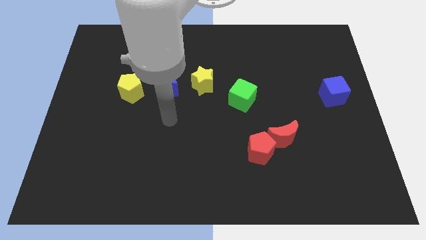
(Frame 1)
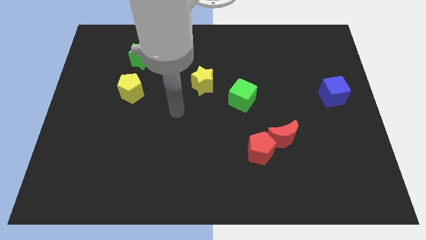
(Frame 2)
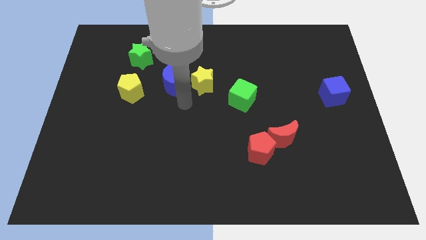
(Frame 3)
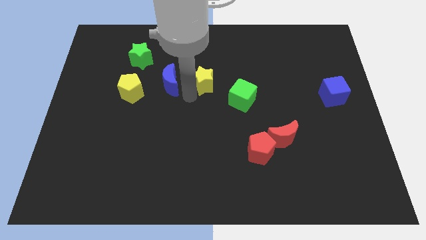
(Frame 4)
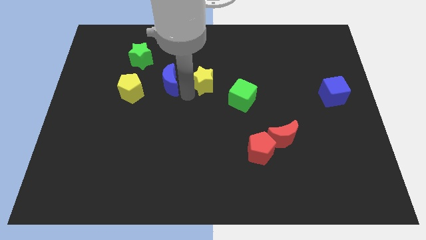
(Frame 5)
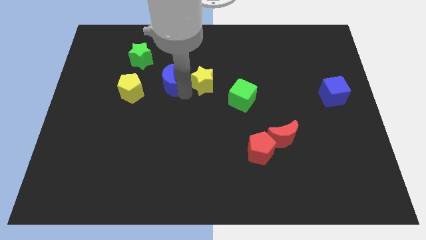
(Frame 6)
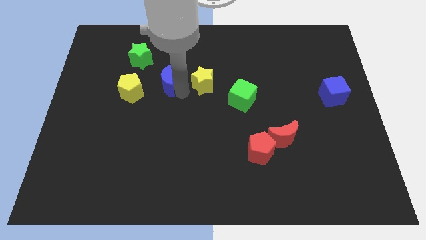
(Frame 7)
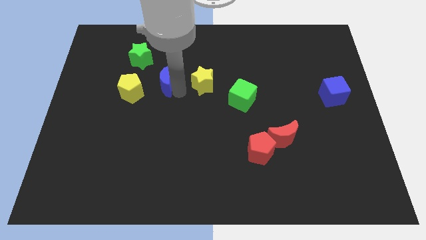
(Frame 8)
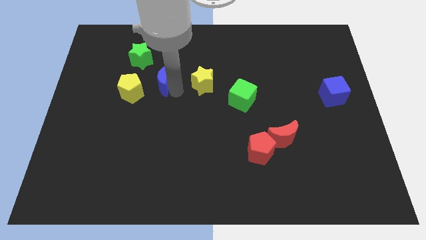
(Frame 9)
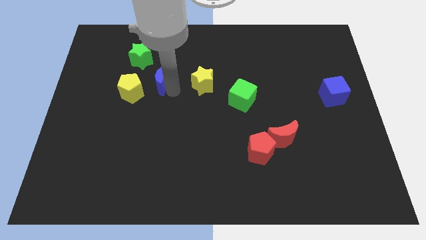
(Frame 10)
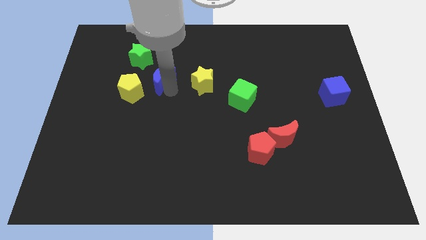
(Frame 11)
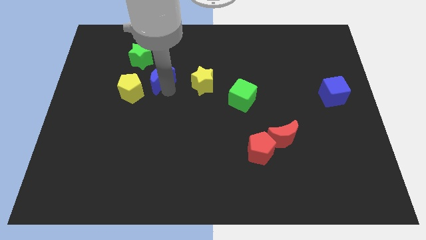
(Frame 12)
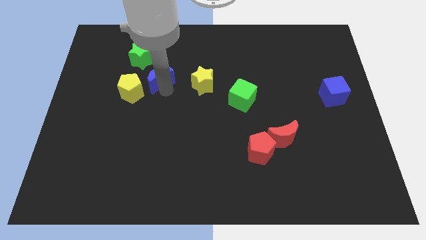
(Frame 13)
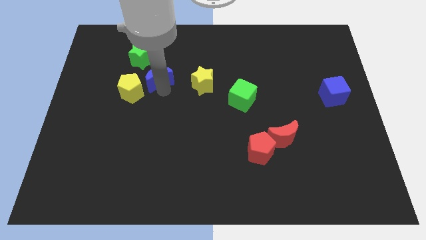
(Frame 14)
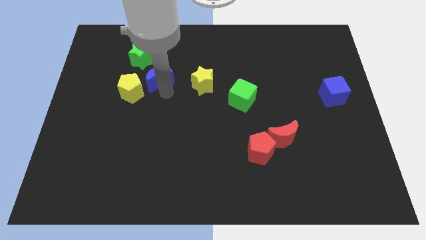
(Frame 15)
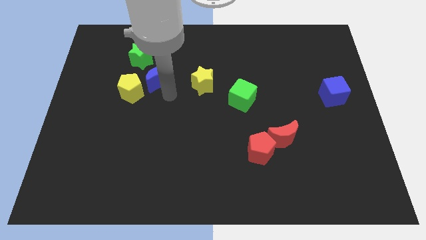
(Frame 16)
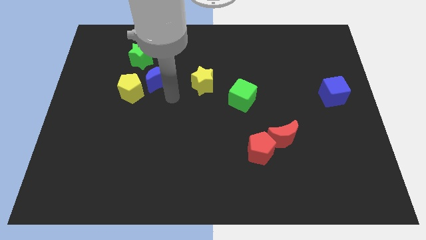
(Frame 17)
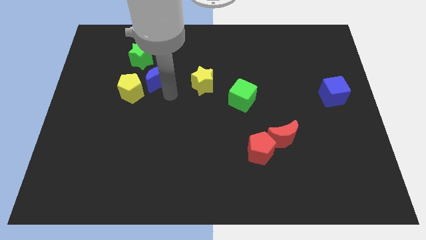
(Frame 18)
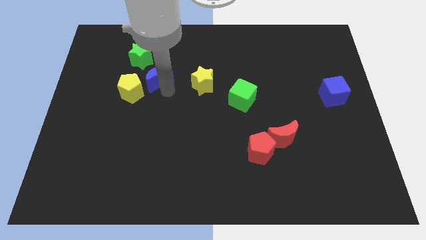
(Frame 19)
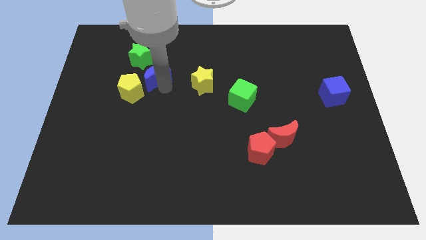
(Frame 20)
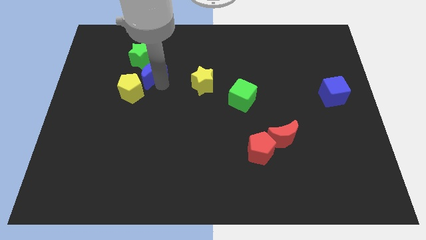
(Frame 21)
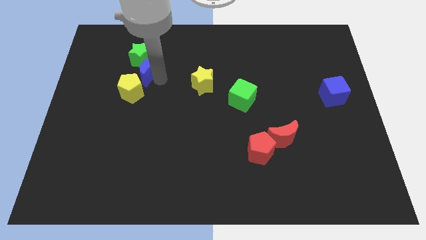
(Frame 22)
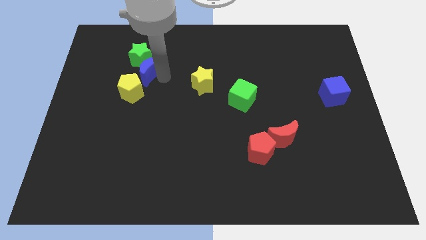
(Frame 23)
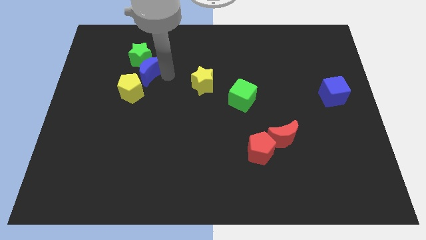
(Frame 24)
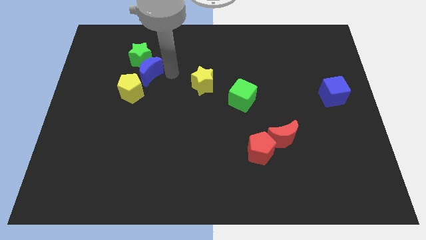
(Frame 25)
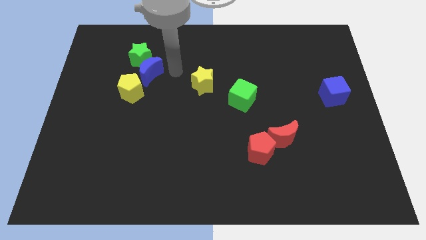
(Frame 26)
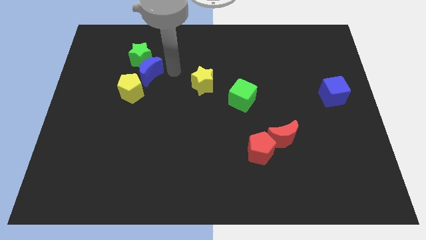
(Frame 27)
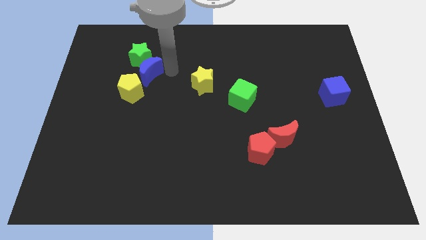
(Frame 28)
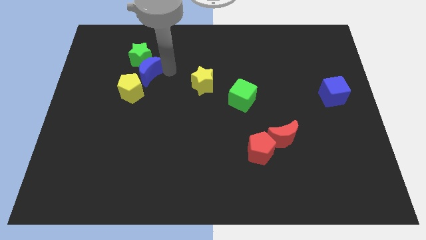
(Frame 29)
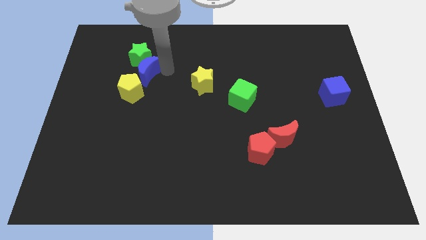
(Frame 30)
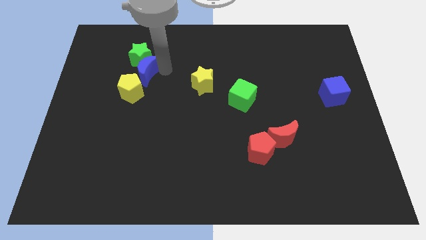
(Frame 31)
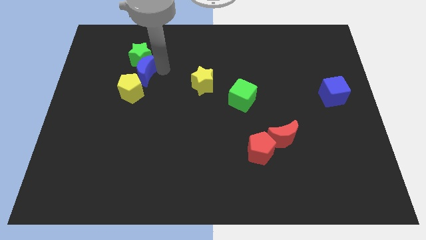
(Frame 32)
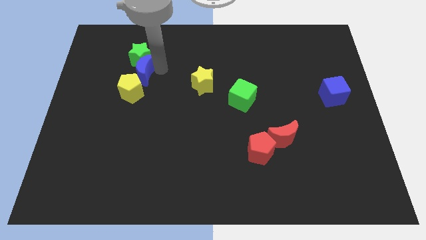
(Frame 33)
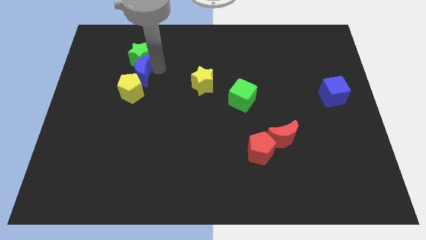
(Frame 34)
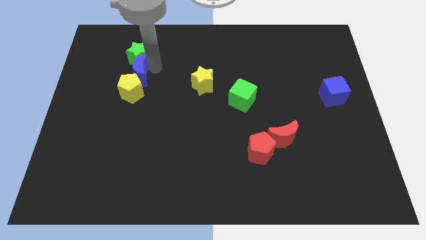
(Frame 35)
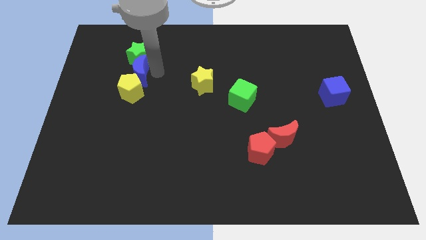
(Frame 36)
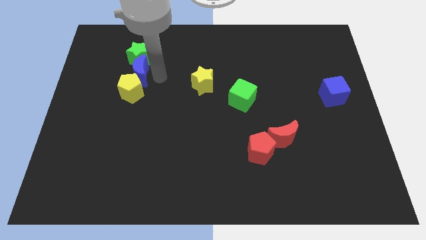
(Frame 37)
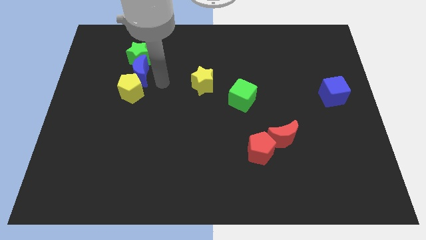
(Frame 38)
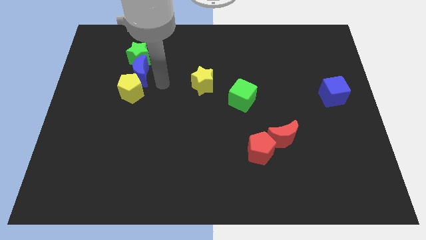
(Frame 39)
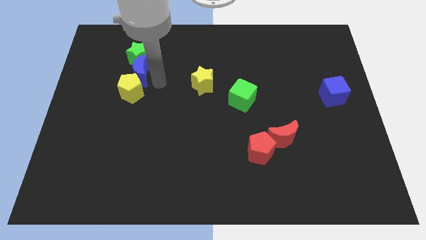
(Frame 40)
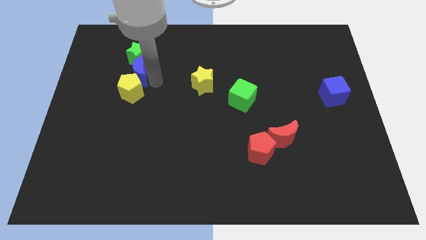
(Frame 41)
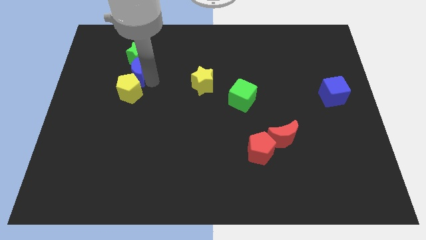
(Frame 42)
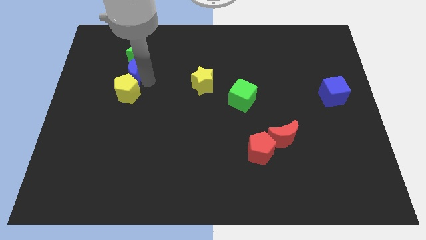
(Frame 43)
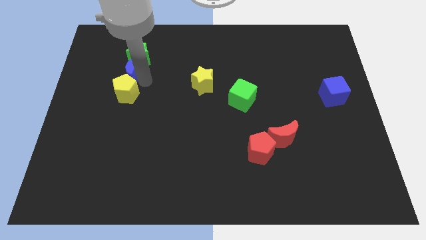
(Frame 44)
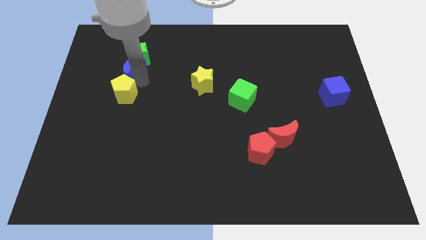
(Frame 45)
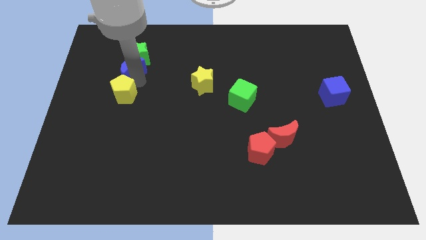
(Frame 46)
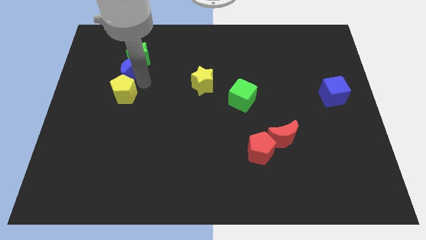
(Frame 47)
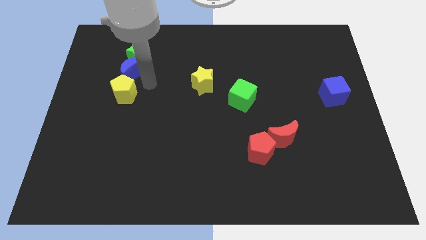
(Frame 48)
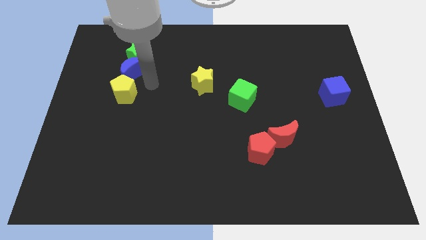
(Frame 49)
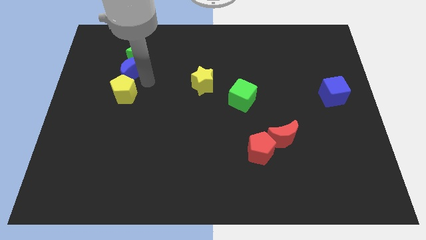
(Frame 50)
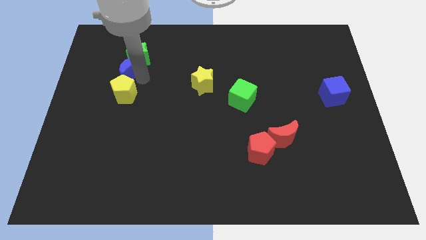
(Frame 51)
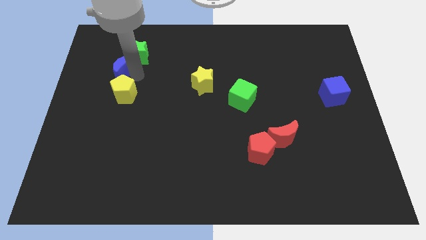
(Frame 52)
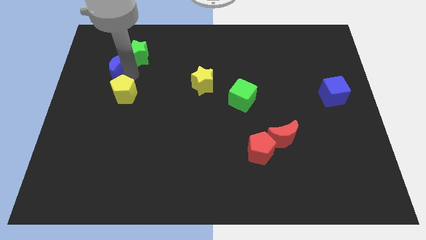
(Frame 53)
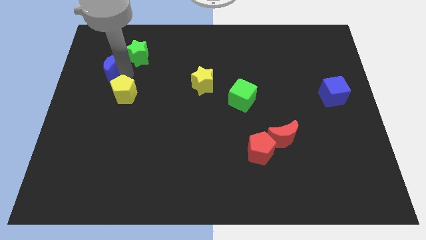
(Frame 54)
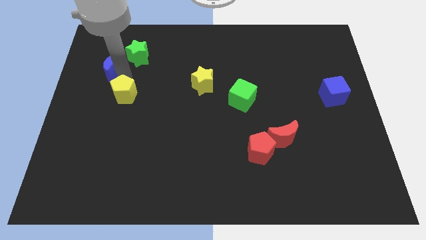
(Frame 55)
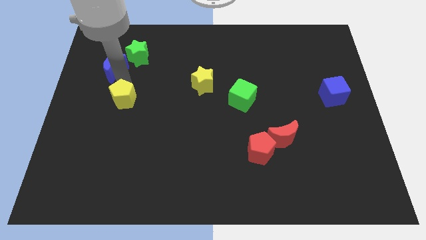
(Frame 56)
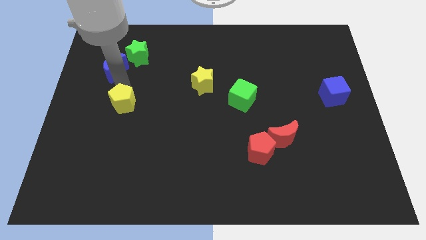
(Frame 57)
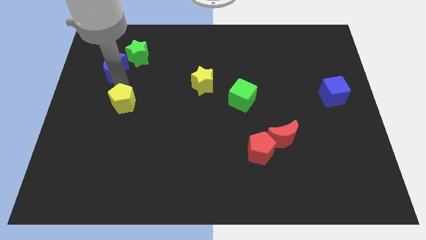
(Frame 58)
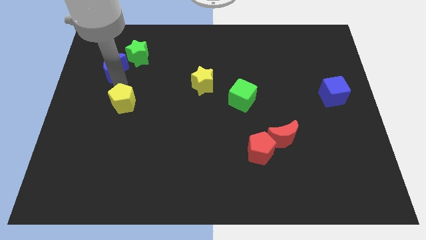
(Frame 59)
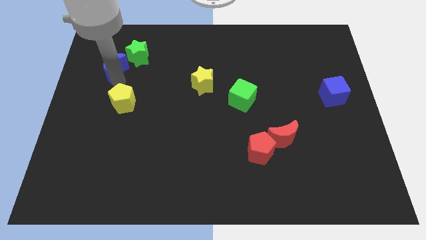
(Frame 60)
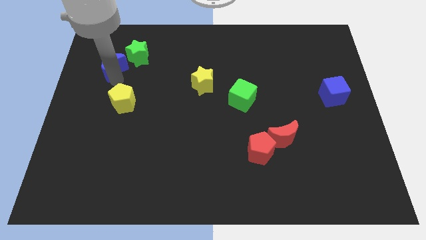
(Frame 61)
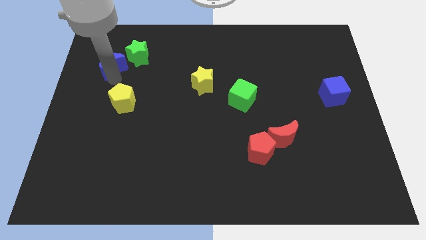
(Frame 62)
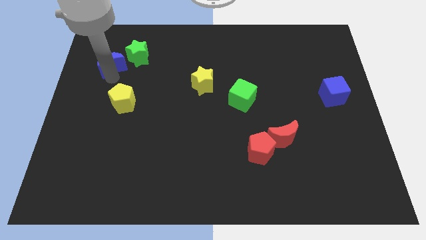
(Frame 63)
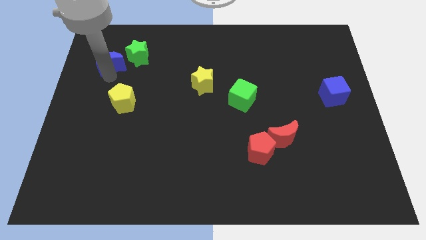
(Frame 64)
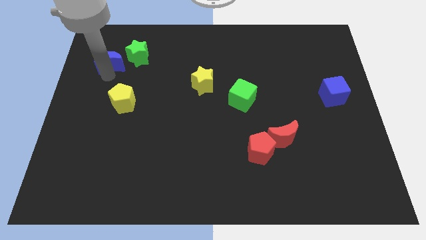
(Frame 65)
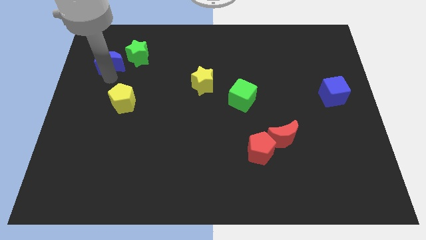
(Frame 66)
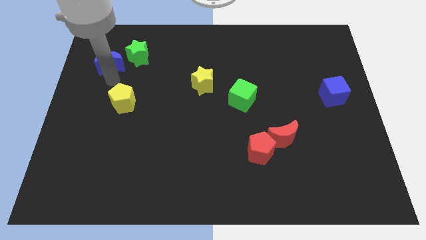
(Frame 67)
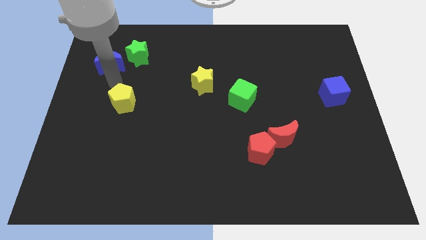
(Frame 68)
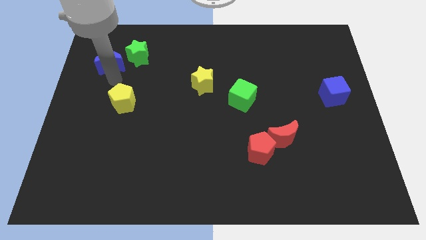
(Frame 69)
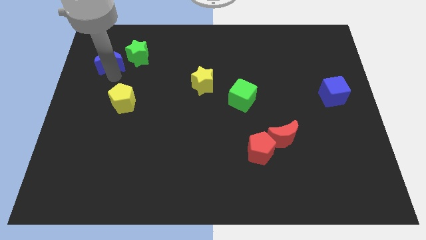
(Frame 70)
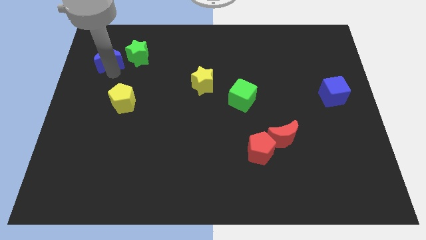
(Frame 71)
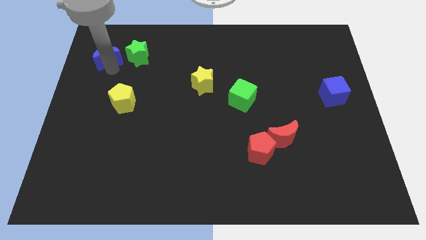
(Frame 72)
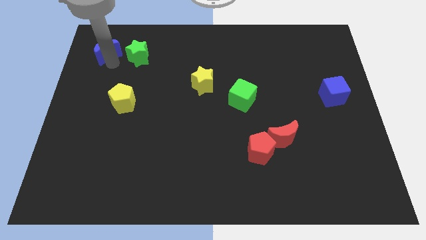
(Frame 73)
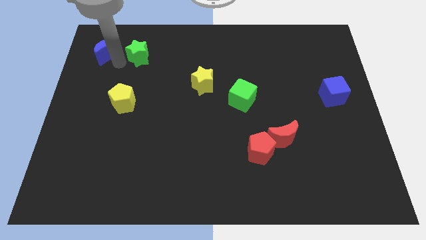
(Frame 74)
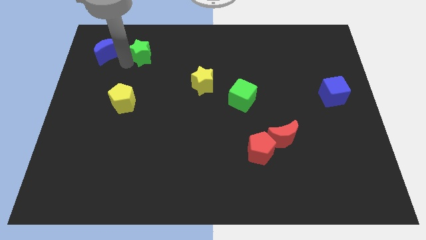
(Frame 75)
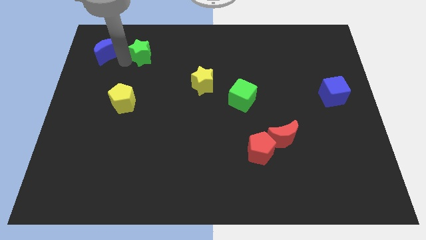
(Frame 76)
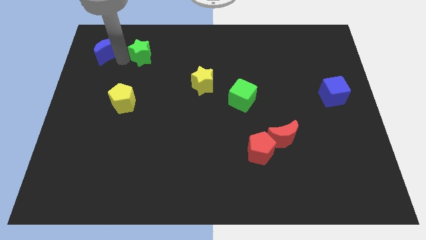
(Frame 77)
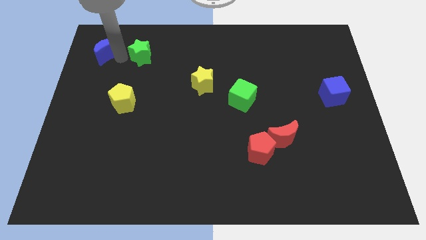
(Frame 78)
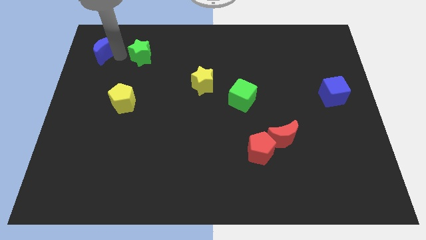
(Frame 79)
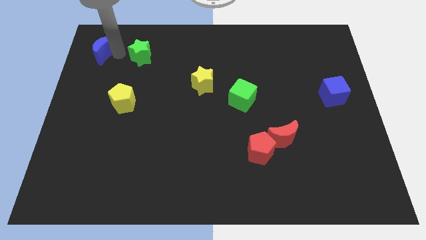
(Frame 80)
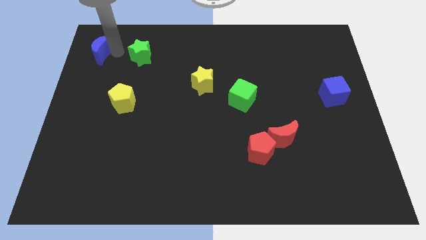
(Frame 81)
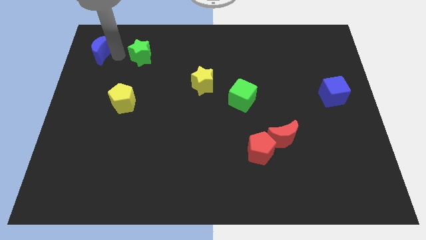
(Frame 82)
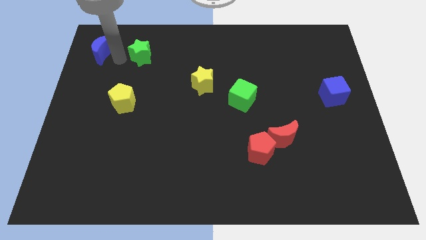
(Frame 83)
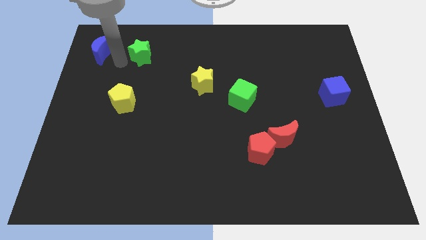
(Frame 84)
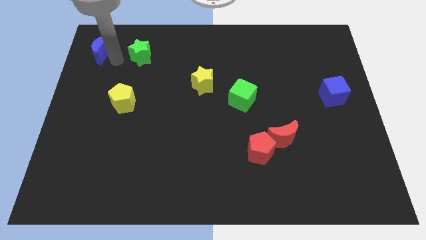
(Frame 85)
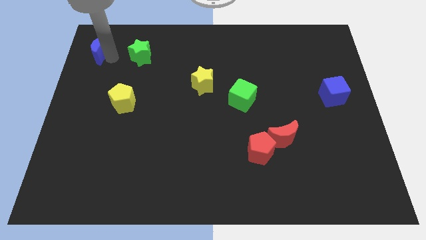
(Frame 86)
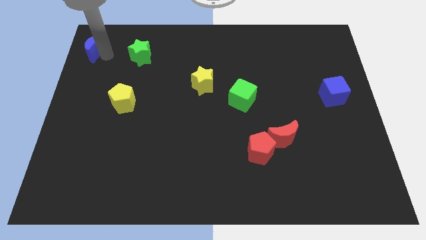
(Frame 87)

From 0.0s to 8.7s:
slide the blue moon to the top left of the board
